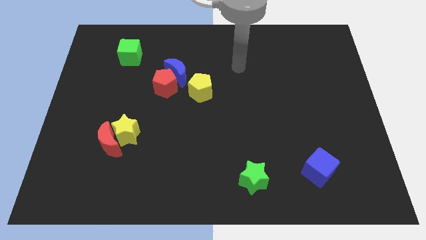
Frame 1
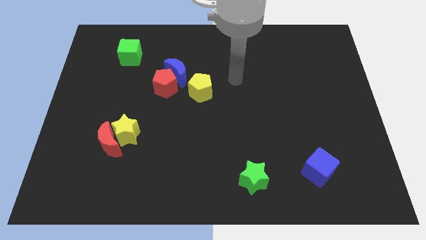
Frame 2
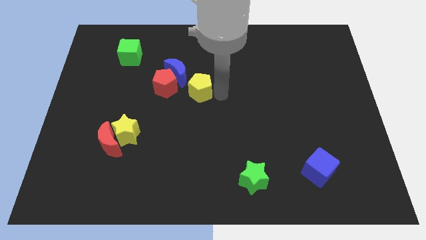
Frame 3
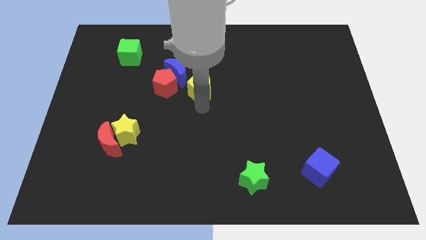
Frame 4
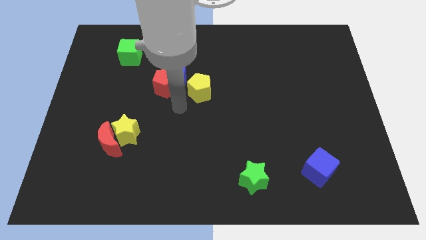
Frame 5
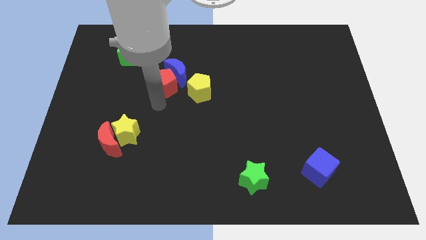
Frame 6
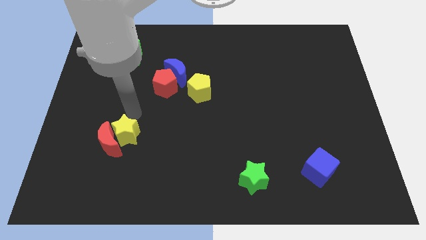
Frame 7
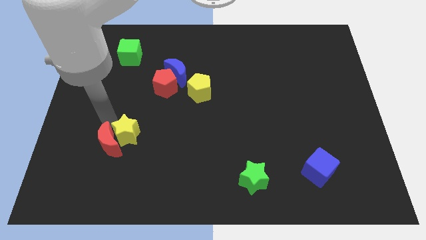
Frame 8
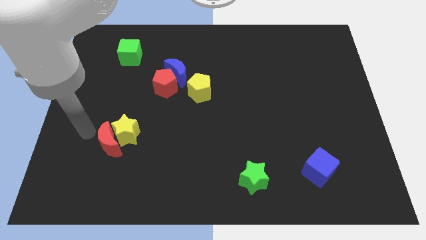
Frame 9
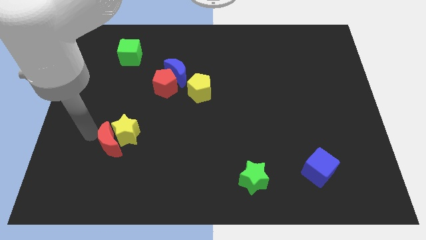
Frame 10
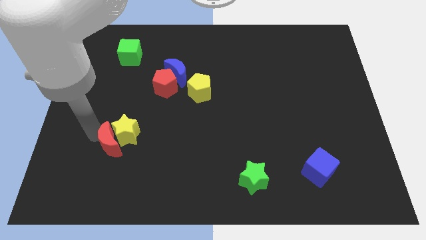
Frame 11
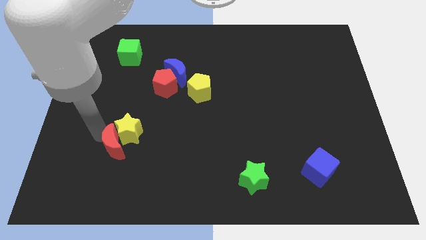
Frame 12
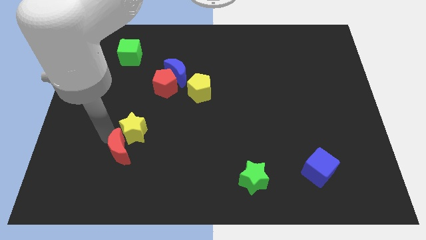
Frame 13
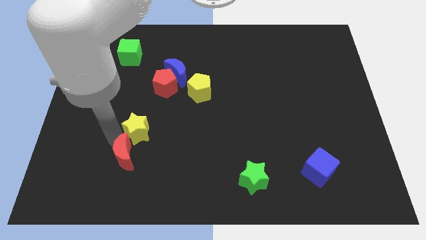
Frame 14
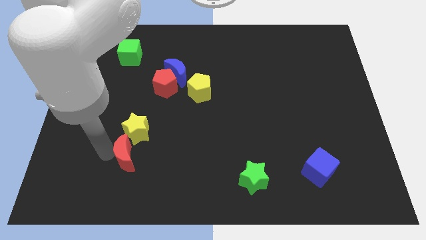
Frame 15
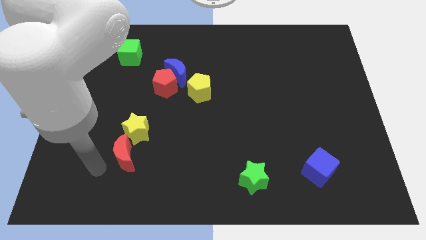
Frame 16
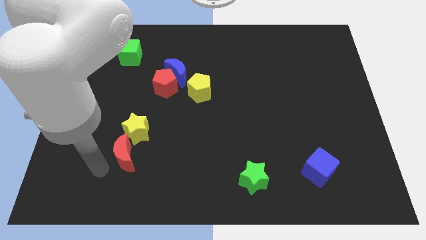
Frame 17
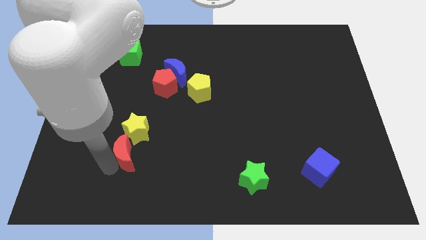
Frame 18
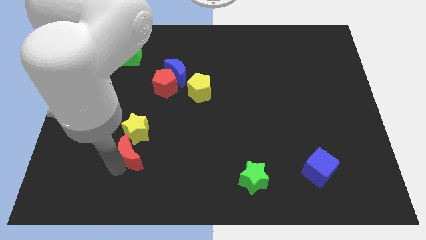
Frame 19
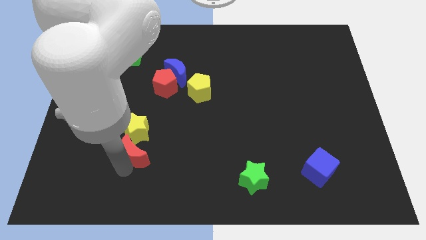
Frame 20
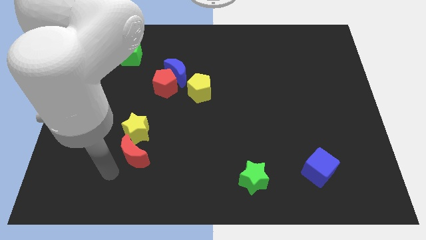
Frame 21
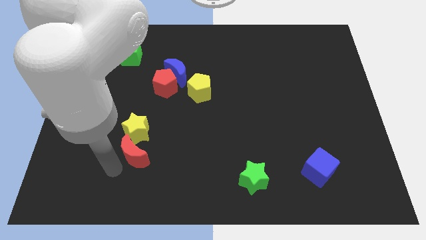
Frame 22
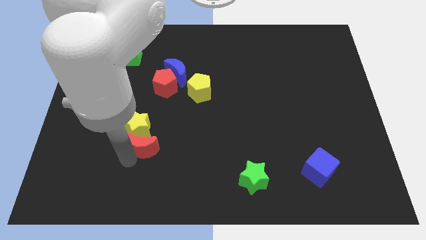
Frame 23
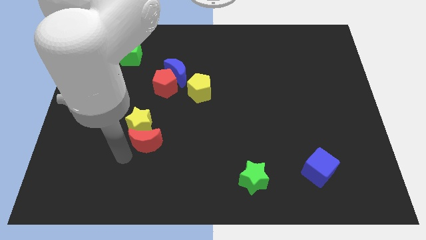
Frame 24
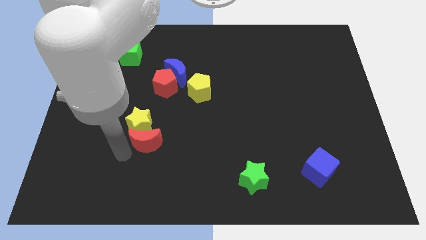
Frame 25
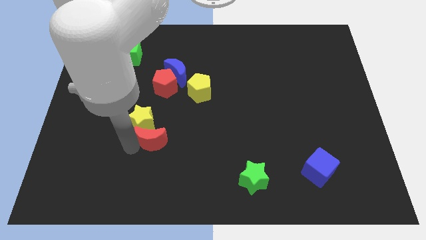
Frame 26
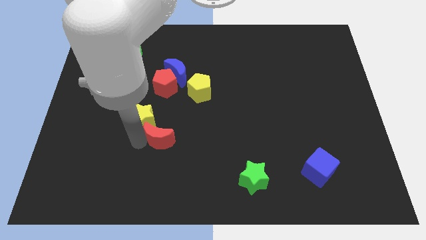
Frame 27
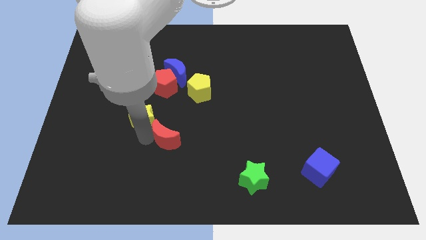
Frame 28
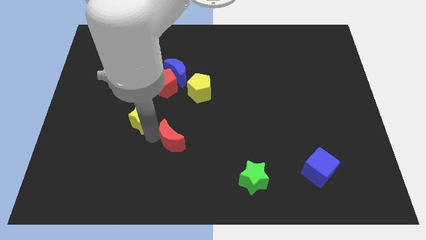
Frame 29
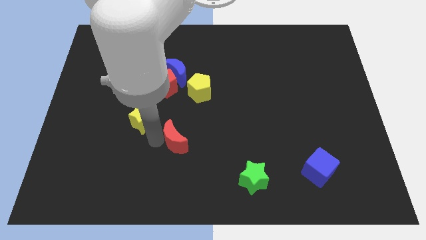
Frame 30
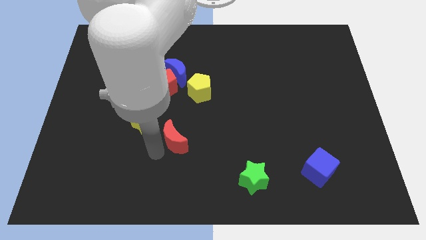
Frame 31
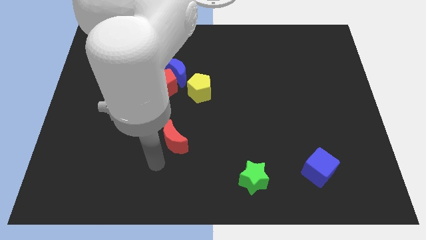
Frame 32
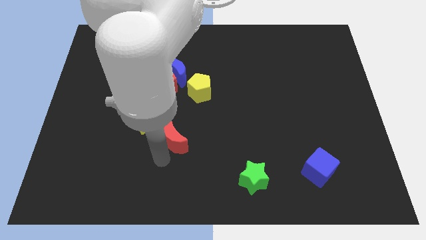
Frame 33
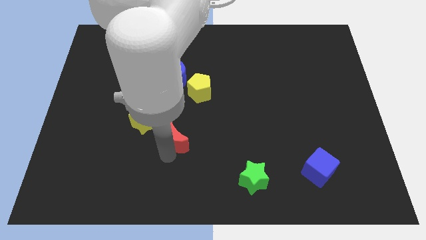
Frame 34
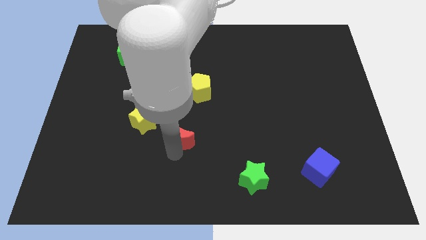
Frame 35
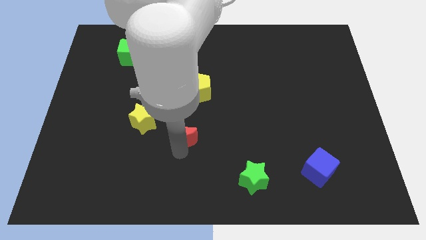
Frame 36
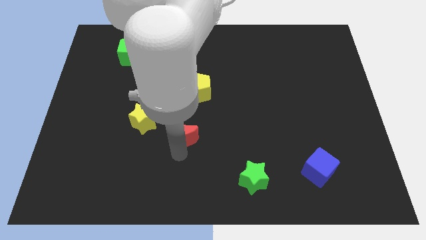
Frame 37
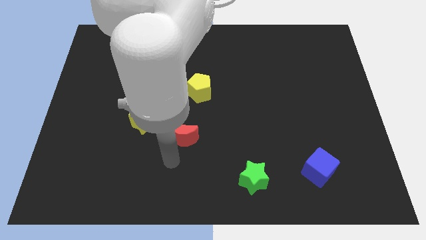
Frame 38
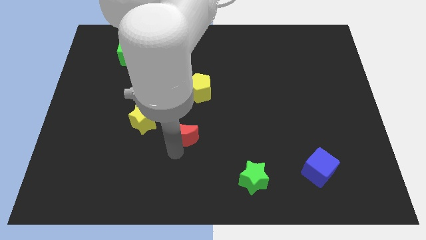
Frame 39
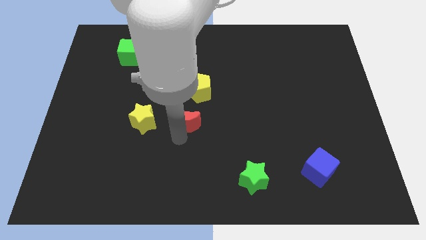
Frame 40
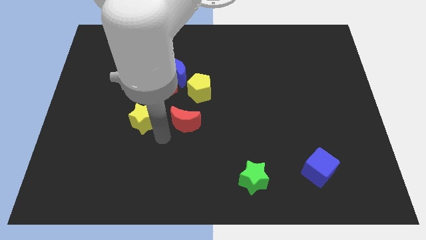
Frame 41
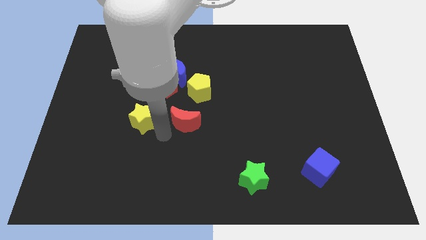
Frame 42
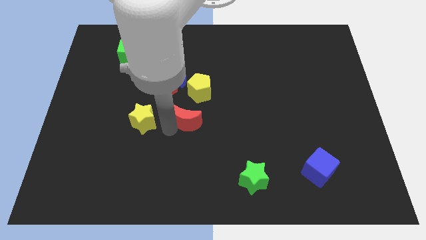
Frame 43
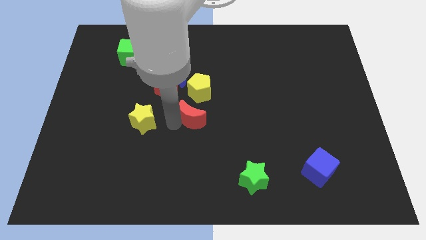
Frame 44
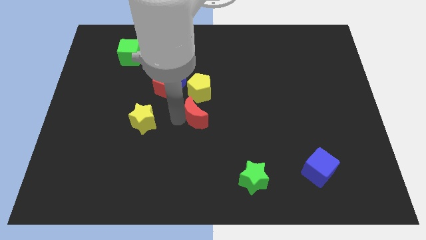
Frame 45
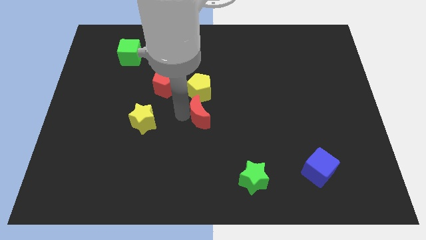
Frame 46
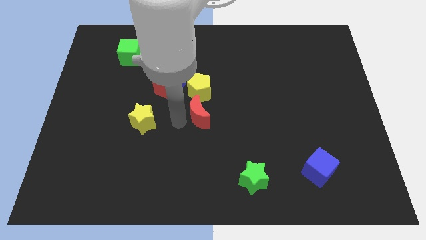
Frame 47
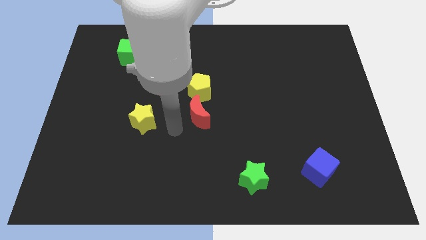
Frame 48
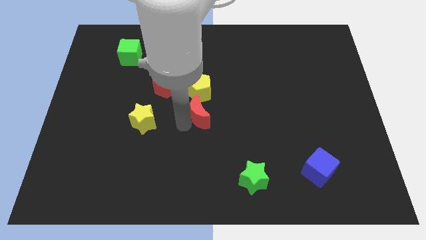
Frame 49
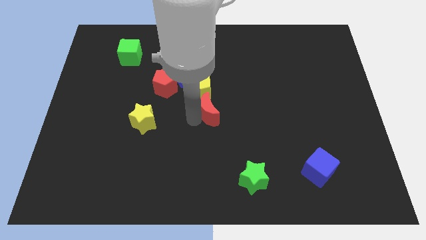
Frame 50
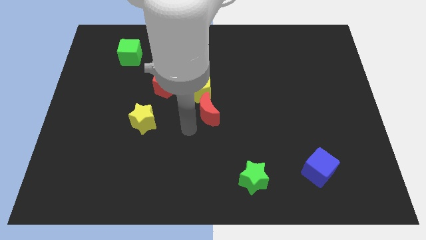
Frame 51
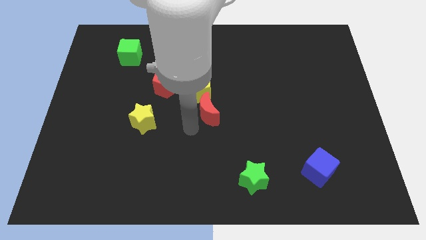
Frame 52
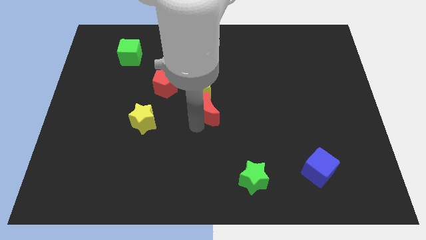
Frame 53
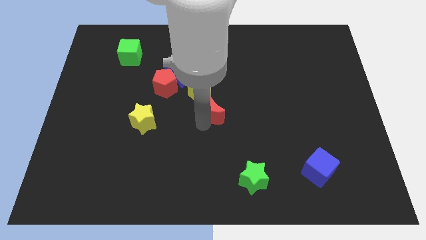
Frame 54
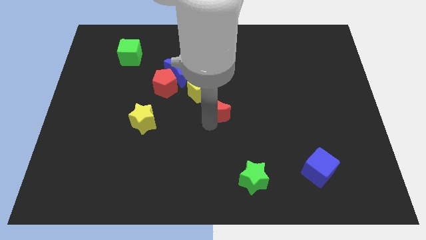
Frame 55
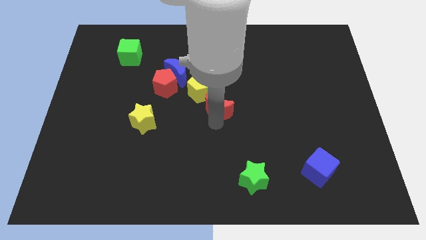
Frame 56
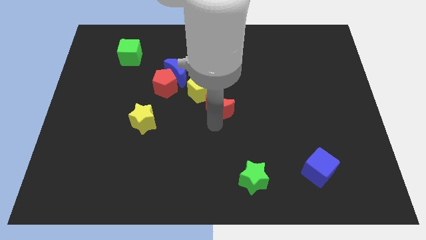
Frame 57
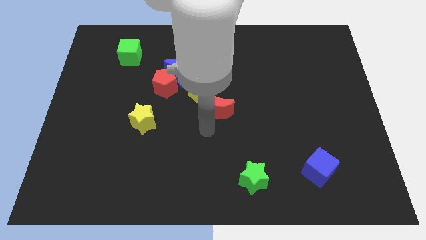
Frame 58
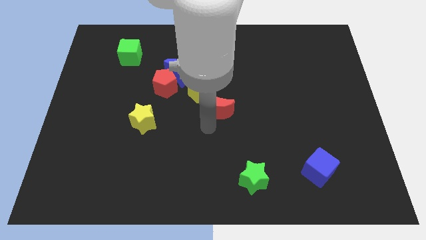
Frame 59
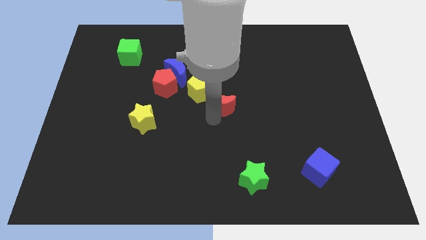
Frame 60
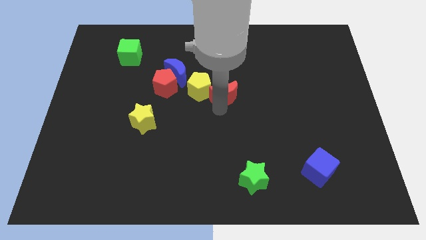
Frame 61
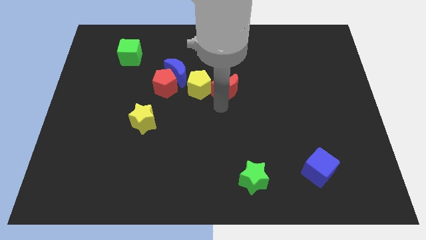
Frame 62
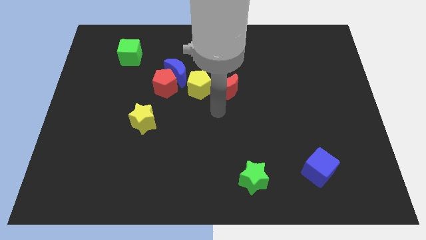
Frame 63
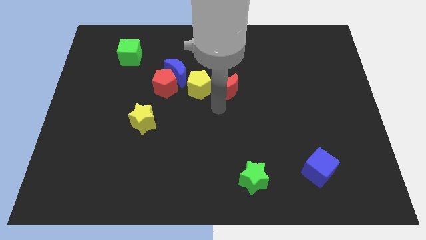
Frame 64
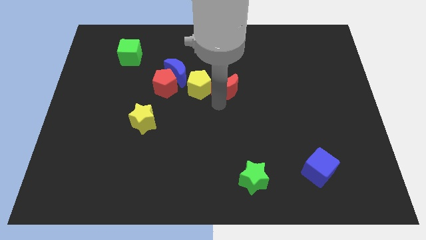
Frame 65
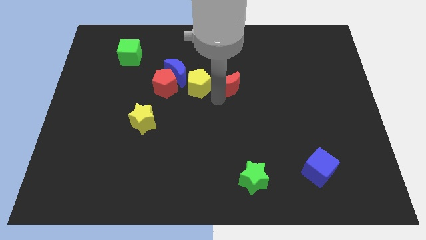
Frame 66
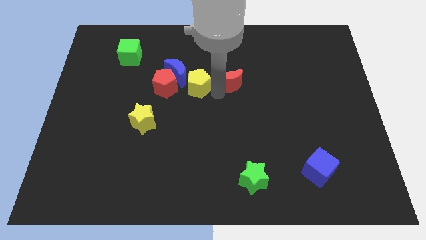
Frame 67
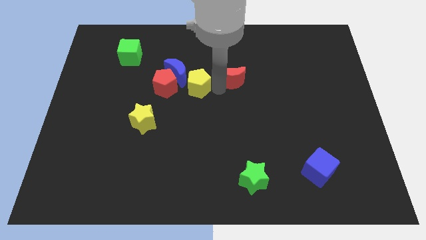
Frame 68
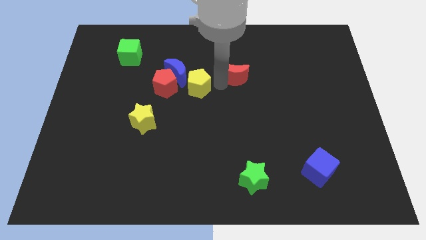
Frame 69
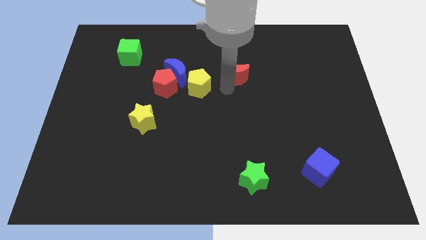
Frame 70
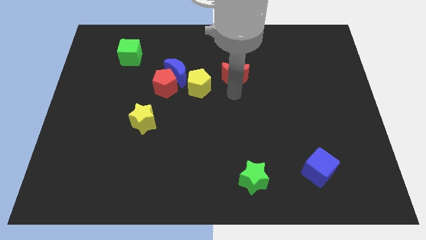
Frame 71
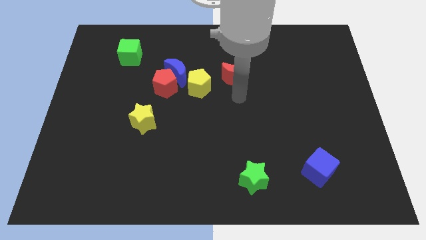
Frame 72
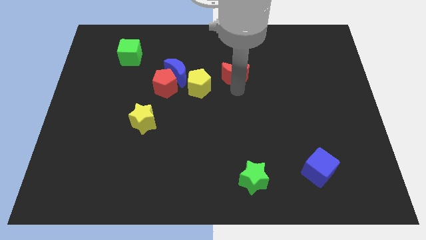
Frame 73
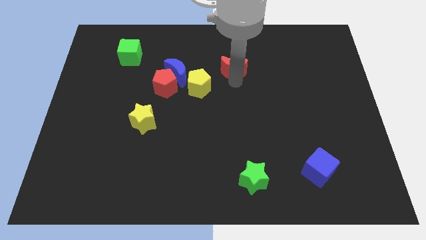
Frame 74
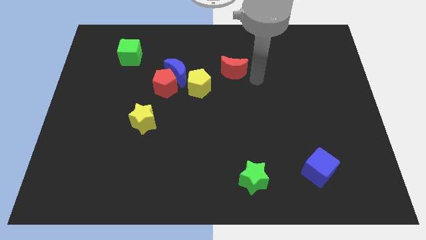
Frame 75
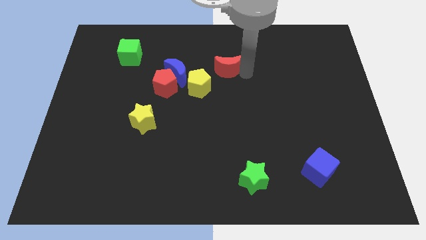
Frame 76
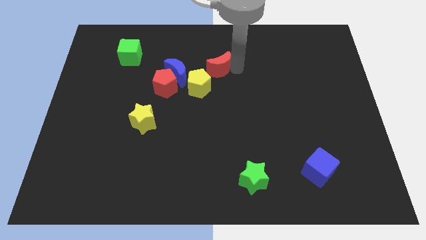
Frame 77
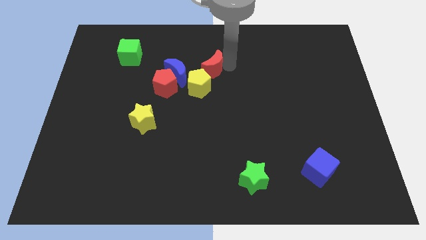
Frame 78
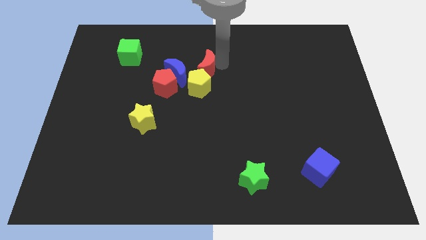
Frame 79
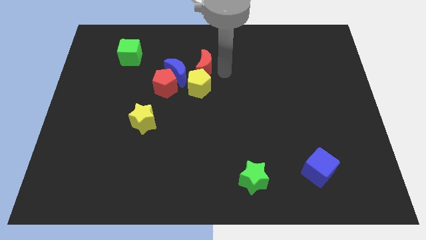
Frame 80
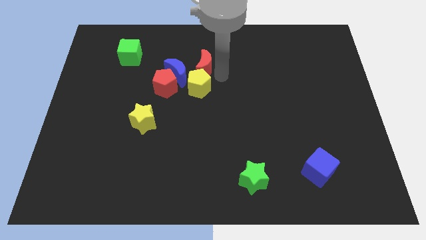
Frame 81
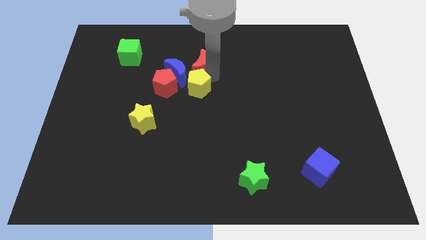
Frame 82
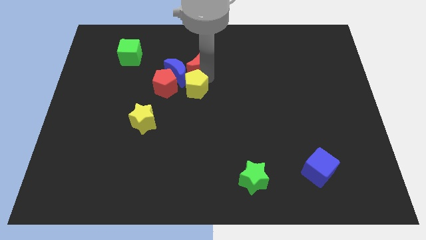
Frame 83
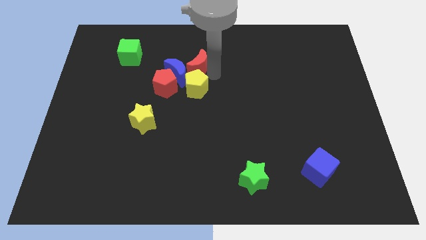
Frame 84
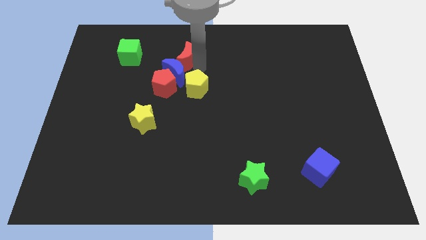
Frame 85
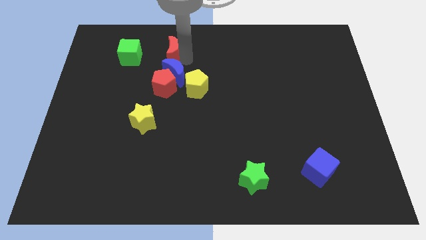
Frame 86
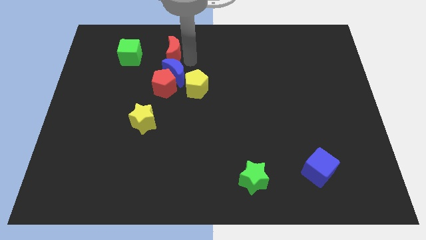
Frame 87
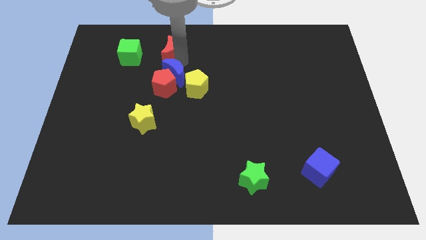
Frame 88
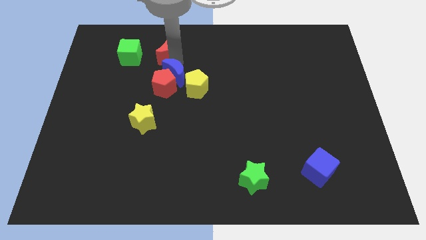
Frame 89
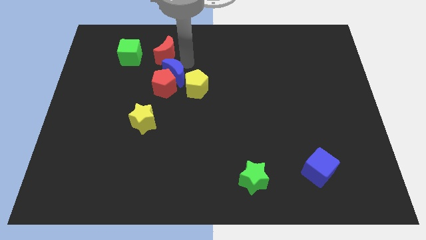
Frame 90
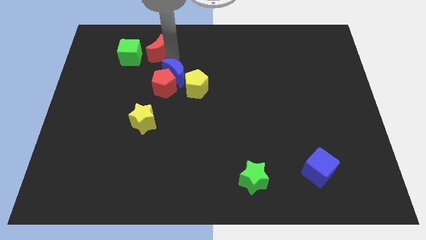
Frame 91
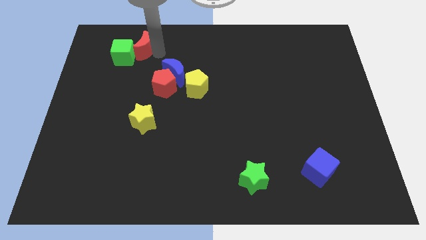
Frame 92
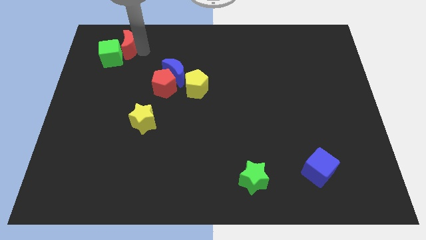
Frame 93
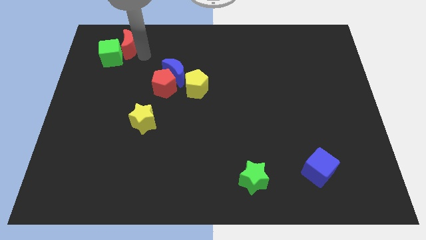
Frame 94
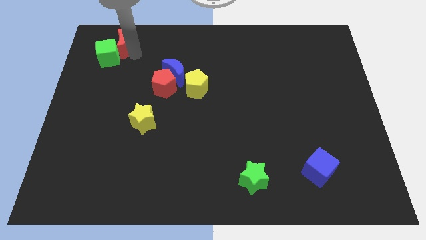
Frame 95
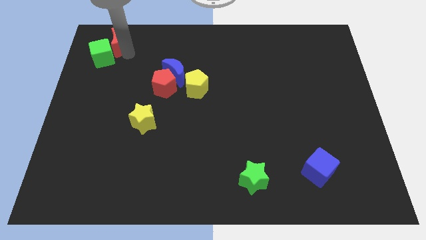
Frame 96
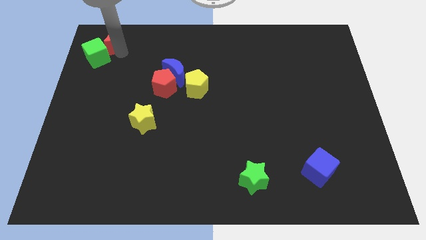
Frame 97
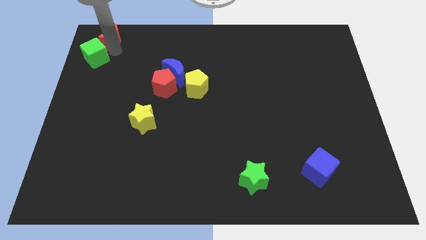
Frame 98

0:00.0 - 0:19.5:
push the red moon to the top left corner
